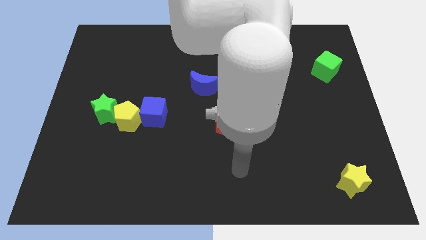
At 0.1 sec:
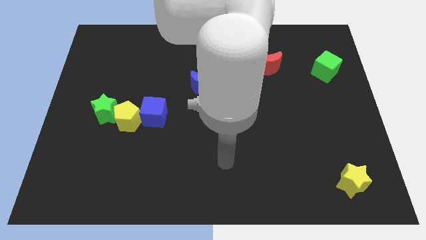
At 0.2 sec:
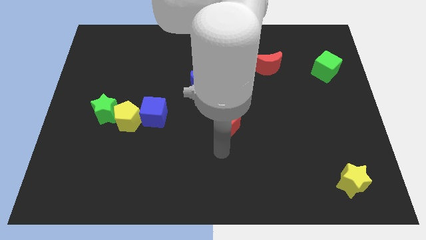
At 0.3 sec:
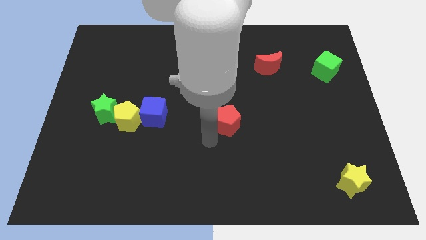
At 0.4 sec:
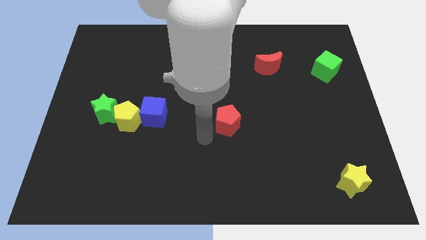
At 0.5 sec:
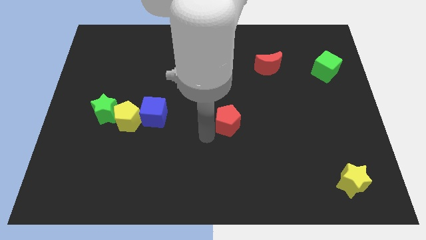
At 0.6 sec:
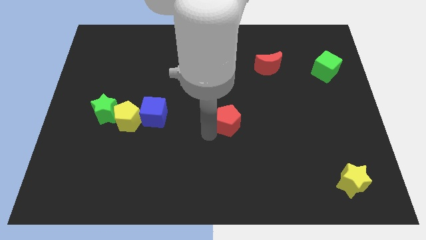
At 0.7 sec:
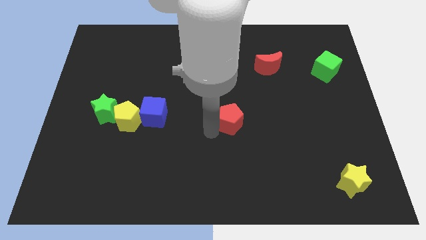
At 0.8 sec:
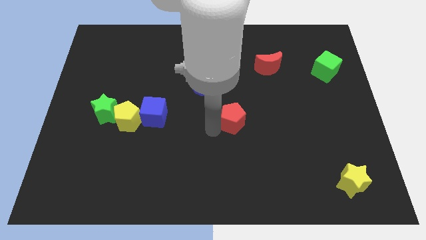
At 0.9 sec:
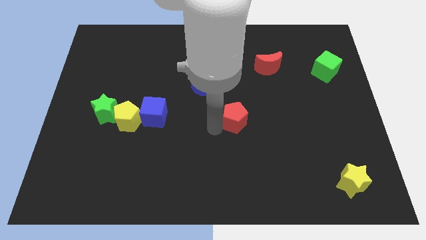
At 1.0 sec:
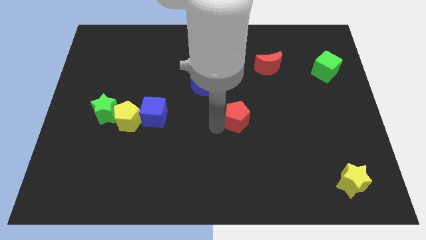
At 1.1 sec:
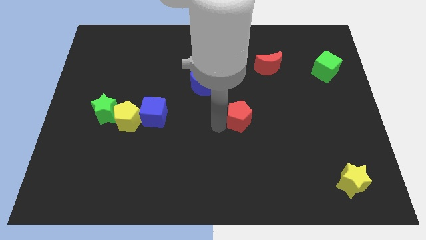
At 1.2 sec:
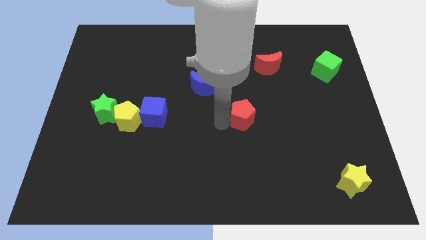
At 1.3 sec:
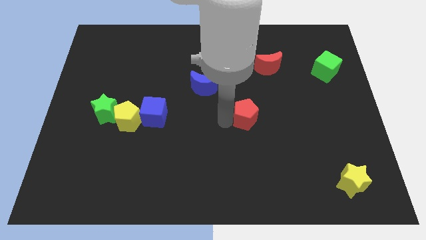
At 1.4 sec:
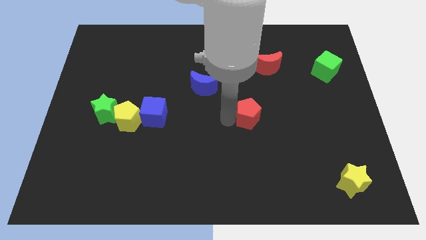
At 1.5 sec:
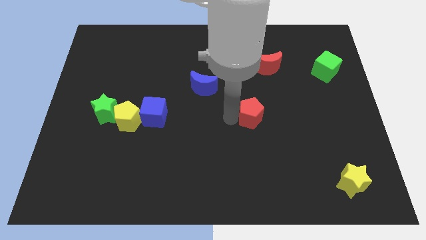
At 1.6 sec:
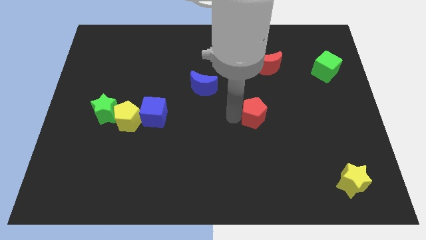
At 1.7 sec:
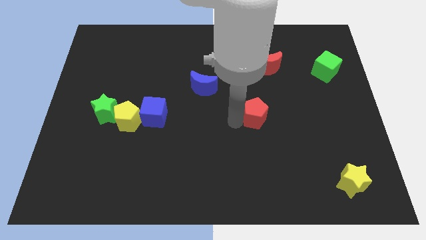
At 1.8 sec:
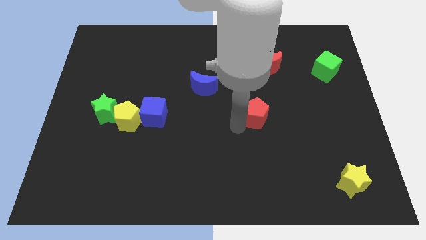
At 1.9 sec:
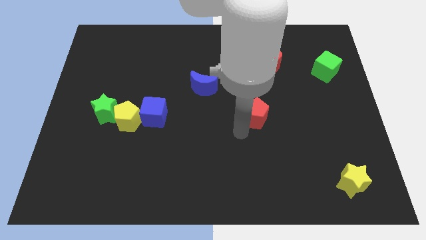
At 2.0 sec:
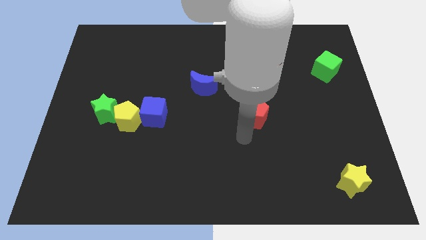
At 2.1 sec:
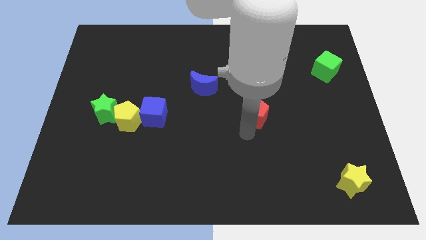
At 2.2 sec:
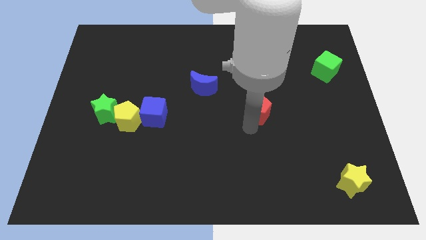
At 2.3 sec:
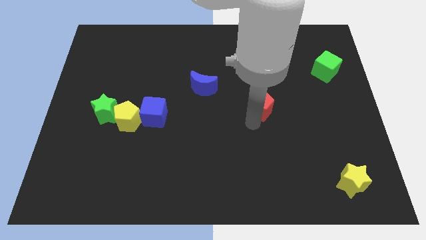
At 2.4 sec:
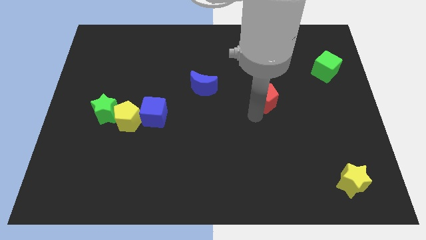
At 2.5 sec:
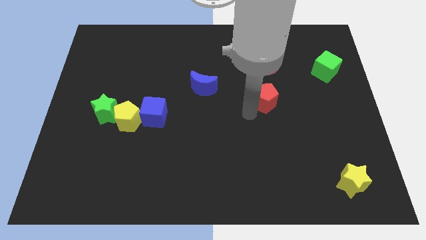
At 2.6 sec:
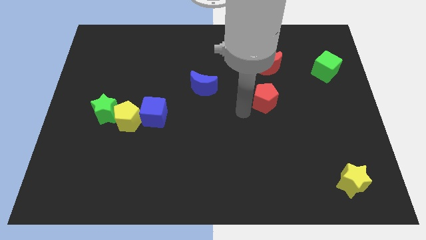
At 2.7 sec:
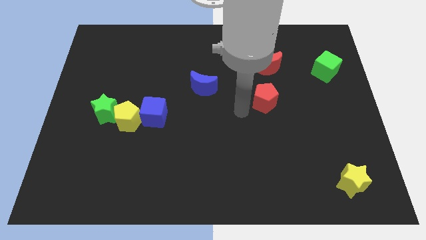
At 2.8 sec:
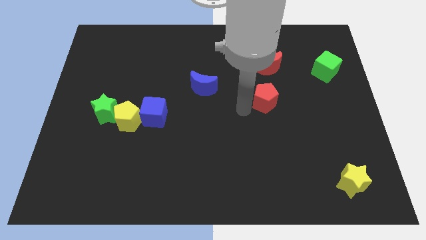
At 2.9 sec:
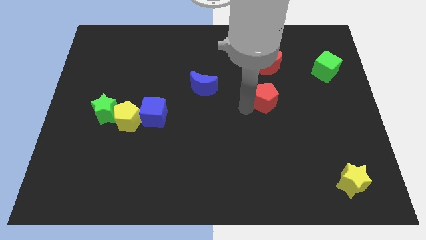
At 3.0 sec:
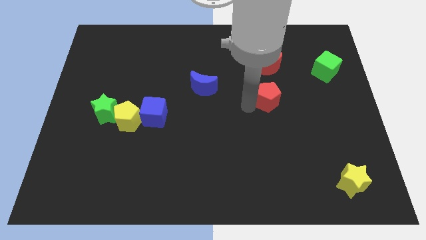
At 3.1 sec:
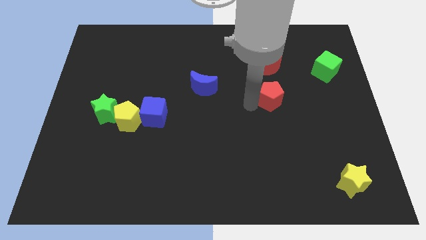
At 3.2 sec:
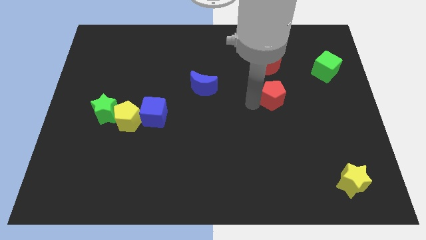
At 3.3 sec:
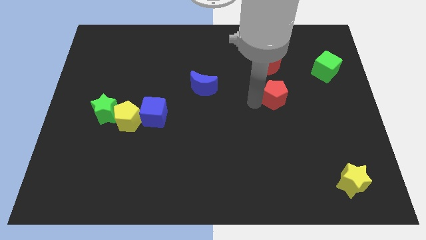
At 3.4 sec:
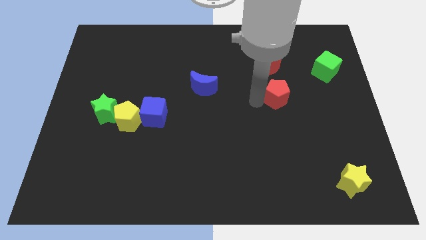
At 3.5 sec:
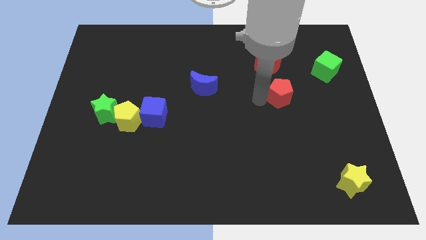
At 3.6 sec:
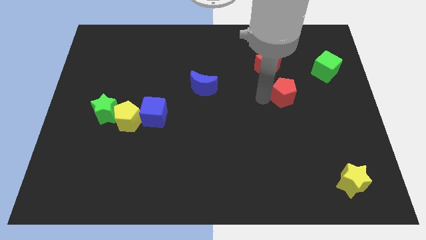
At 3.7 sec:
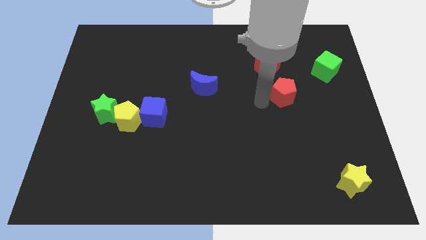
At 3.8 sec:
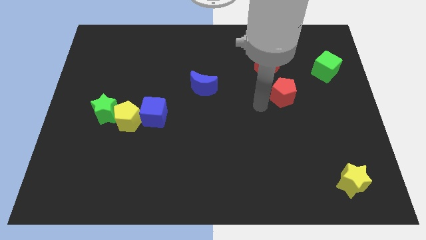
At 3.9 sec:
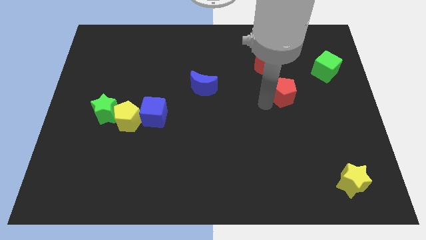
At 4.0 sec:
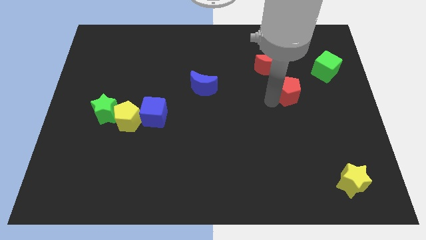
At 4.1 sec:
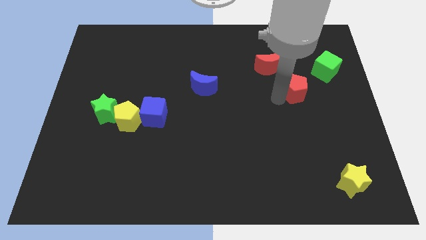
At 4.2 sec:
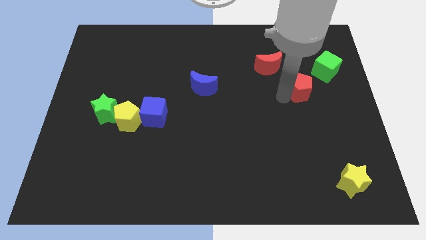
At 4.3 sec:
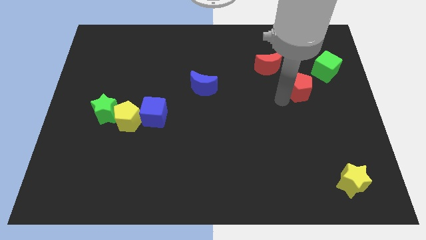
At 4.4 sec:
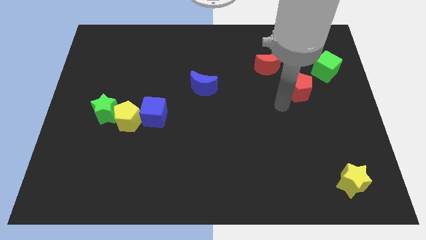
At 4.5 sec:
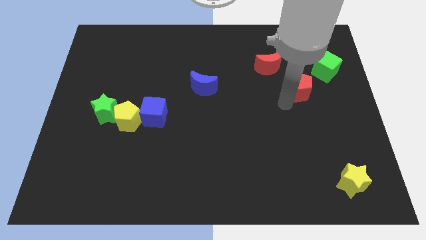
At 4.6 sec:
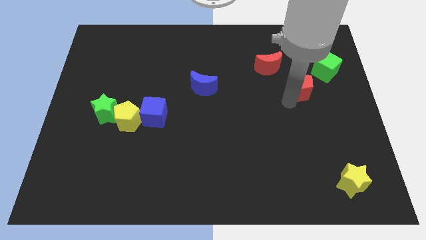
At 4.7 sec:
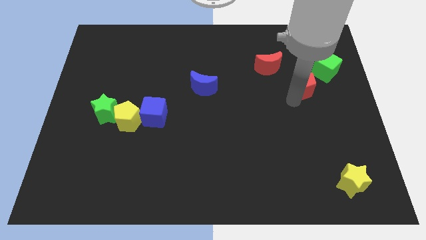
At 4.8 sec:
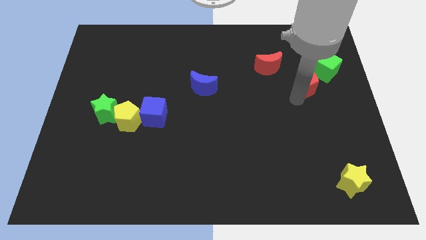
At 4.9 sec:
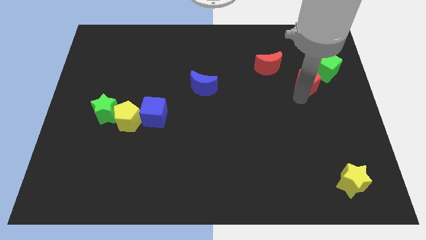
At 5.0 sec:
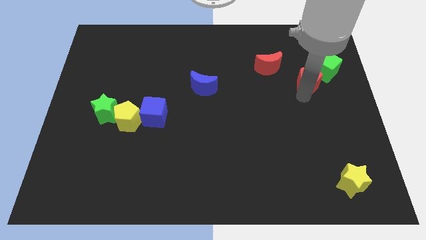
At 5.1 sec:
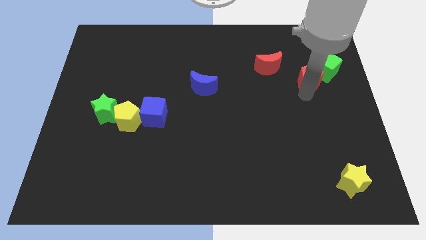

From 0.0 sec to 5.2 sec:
push the red pentagon next to the green cube

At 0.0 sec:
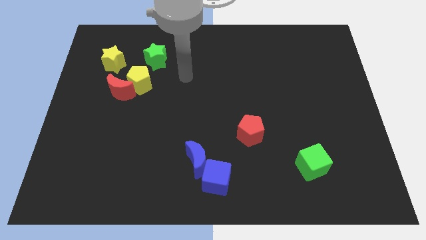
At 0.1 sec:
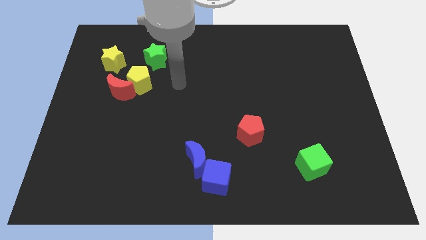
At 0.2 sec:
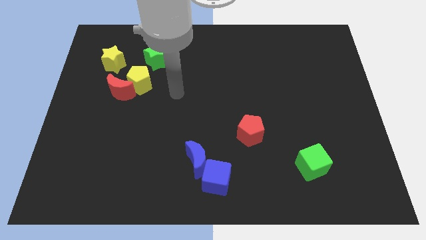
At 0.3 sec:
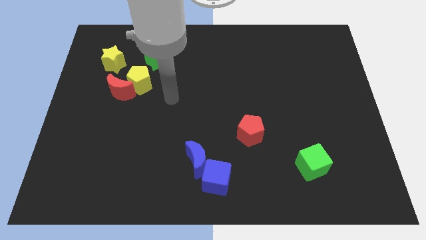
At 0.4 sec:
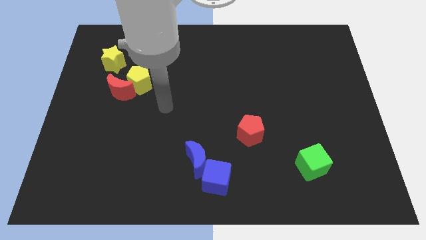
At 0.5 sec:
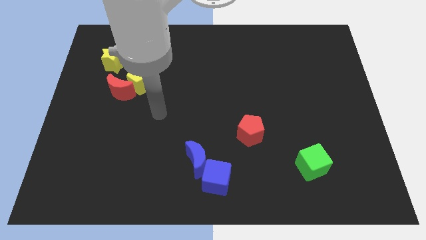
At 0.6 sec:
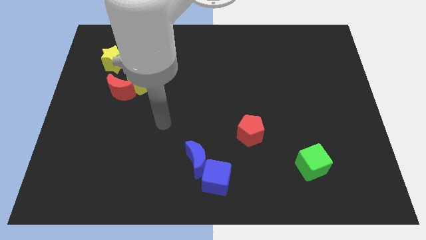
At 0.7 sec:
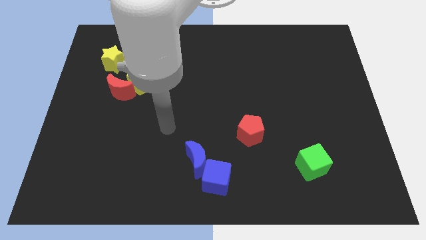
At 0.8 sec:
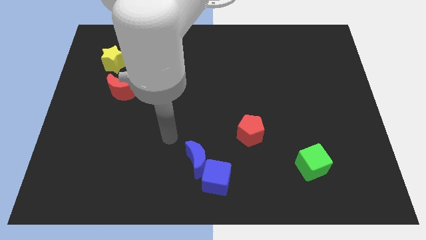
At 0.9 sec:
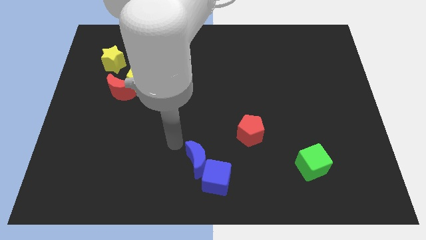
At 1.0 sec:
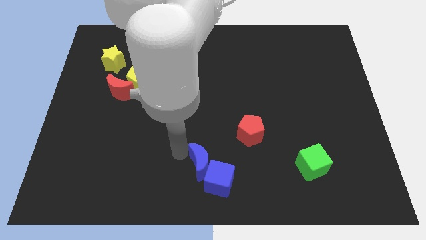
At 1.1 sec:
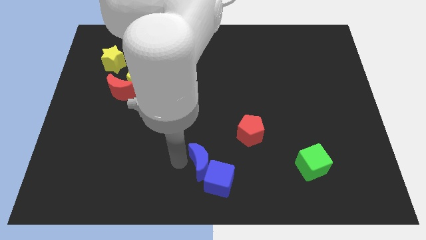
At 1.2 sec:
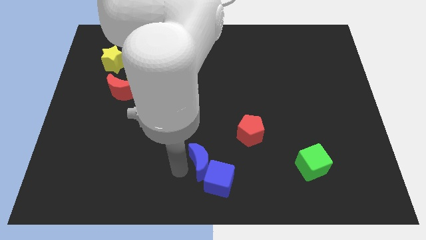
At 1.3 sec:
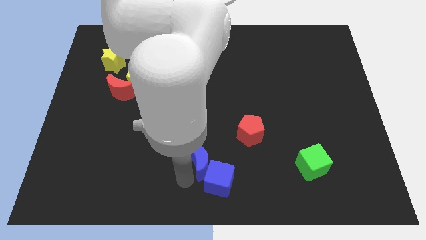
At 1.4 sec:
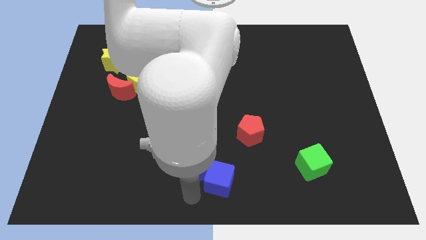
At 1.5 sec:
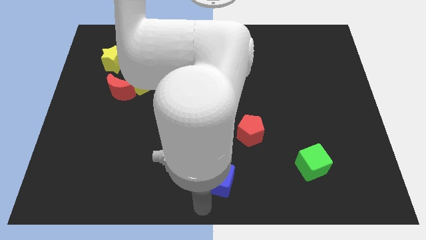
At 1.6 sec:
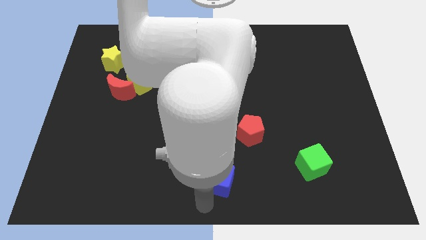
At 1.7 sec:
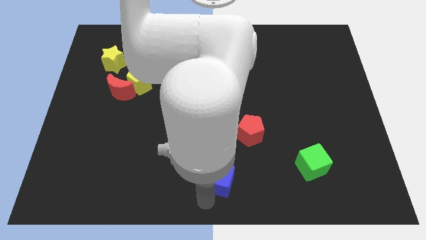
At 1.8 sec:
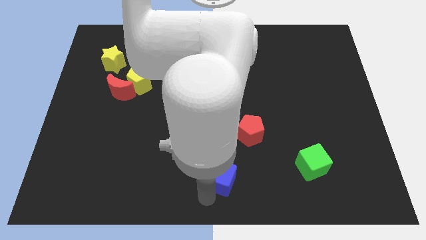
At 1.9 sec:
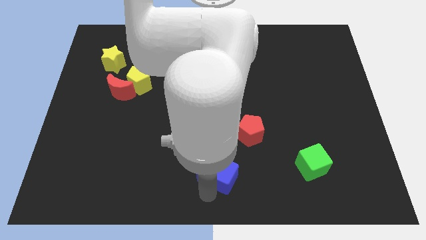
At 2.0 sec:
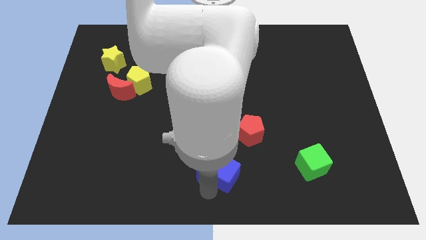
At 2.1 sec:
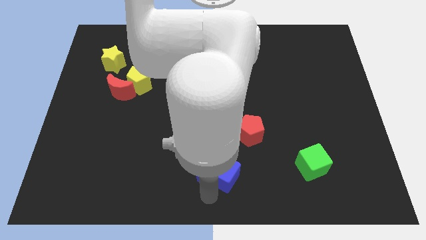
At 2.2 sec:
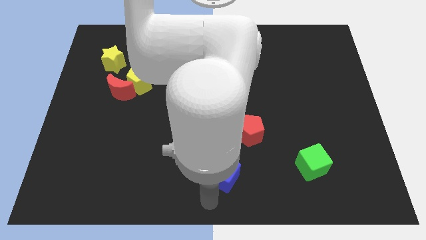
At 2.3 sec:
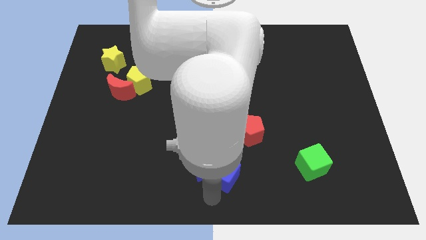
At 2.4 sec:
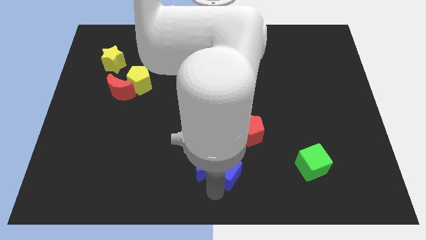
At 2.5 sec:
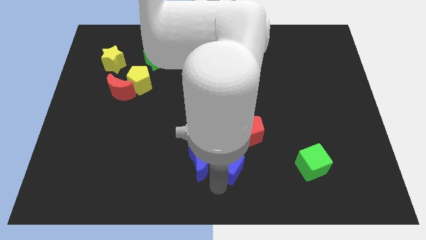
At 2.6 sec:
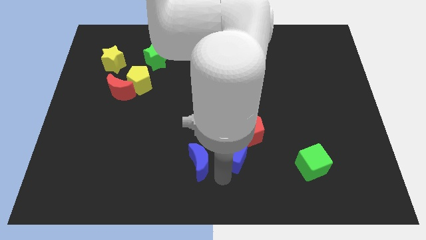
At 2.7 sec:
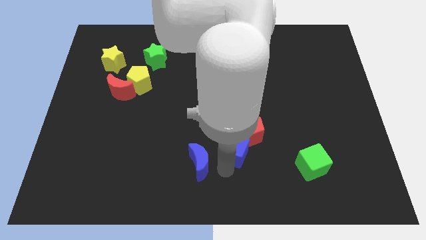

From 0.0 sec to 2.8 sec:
slide the blue cube next to the red pentagon
